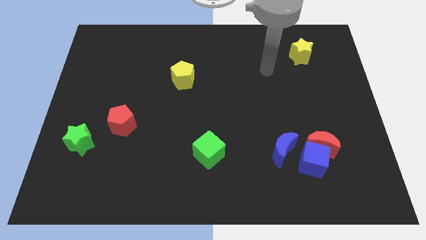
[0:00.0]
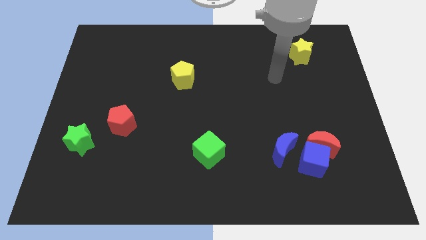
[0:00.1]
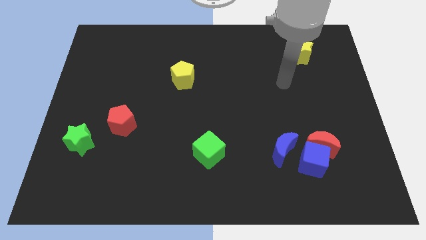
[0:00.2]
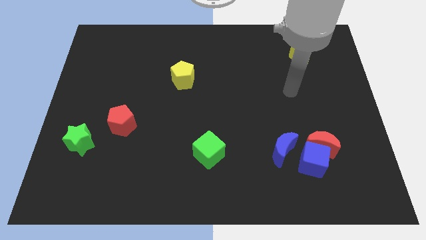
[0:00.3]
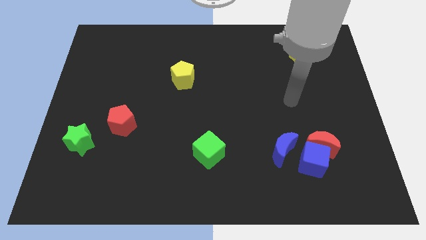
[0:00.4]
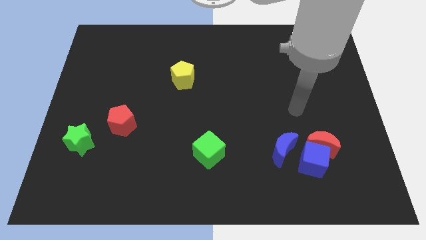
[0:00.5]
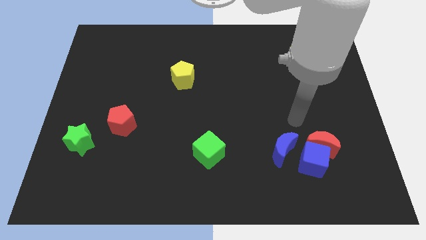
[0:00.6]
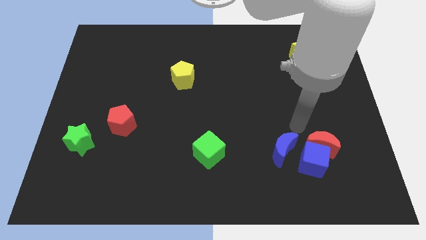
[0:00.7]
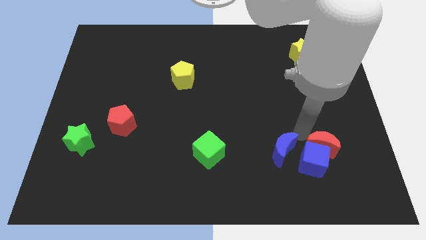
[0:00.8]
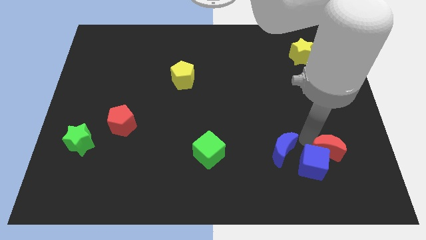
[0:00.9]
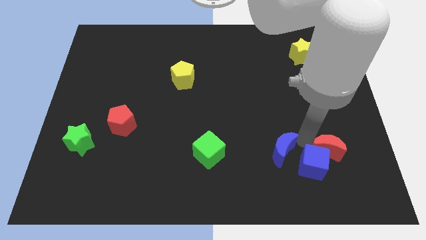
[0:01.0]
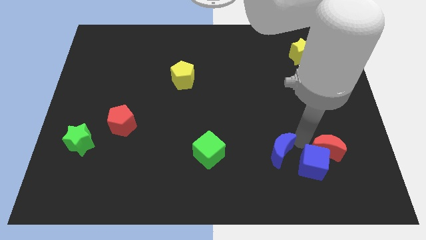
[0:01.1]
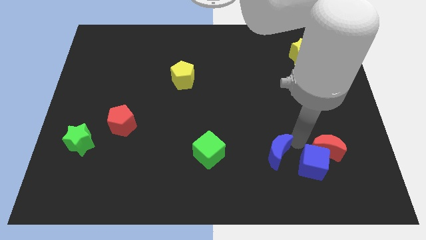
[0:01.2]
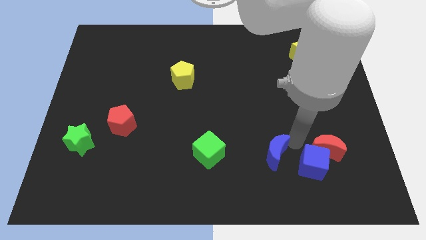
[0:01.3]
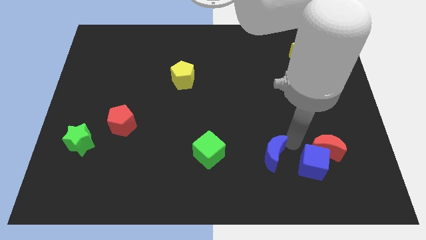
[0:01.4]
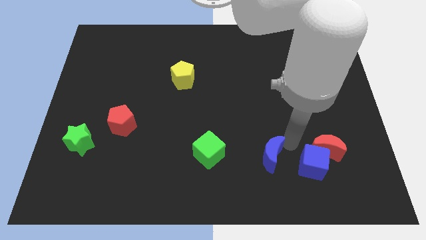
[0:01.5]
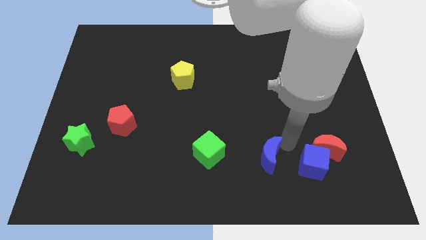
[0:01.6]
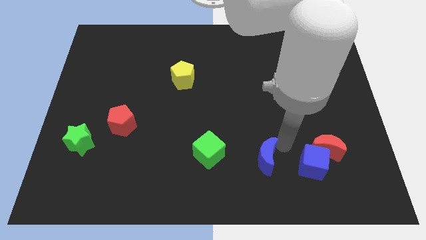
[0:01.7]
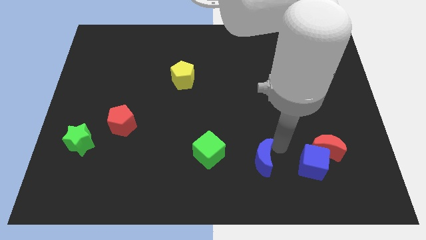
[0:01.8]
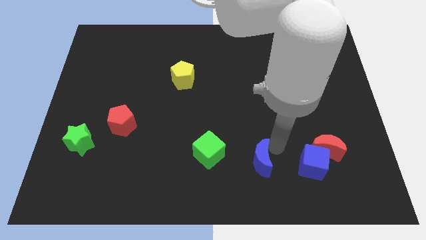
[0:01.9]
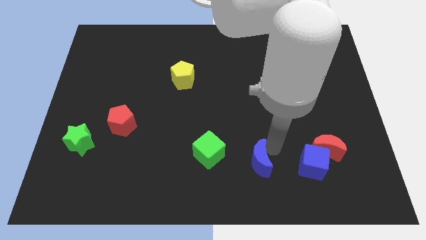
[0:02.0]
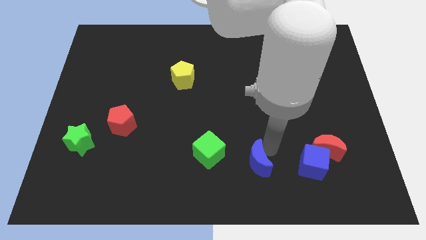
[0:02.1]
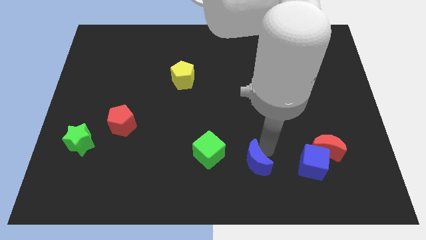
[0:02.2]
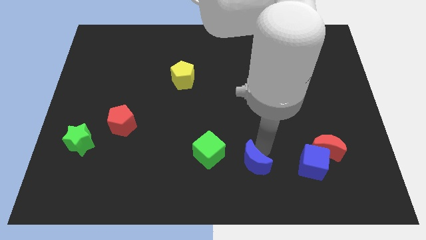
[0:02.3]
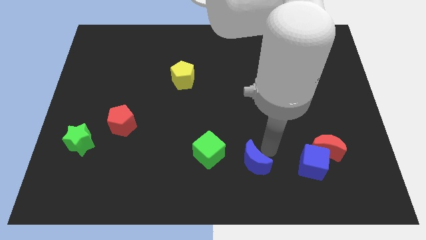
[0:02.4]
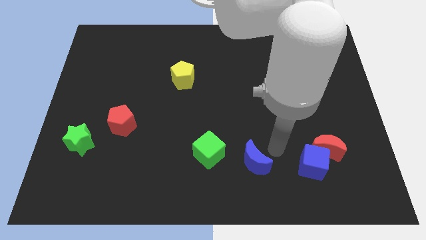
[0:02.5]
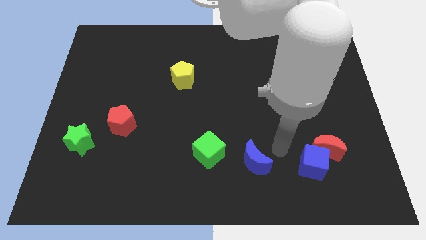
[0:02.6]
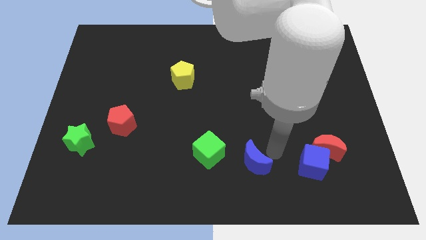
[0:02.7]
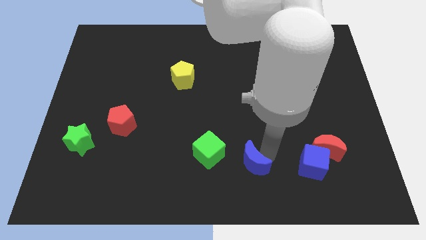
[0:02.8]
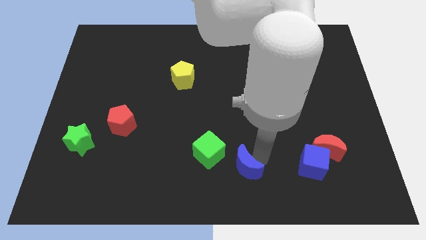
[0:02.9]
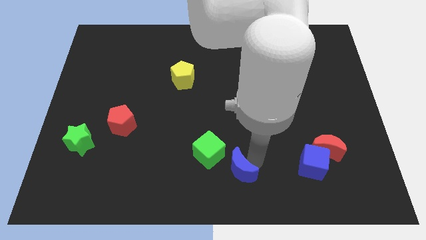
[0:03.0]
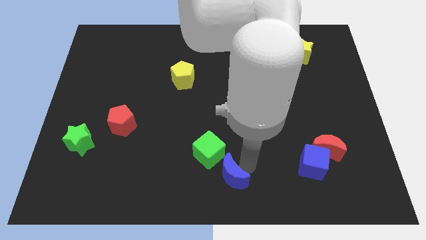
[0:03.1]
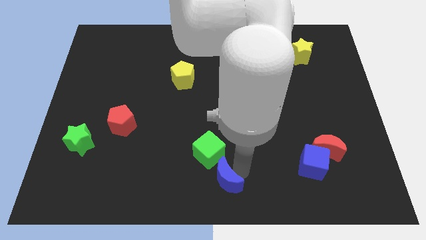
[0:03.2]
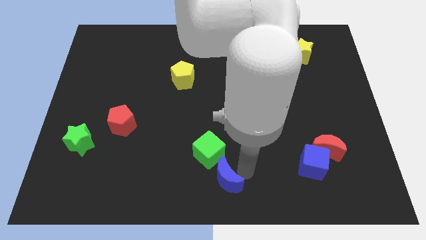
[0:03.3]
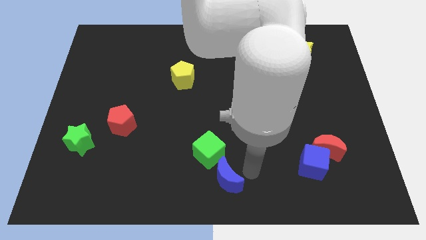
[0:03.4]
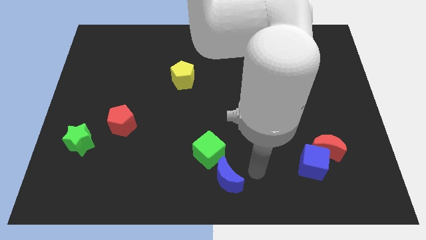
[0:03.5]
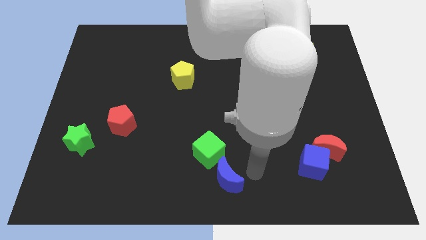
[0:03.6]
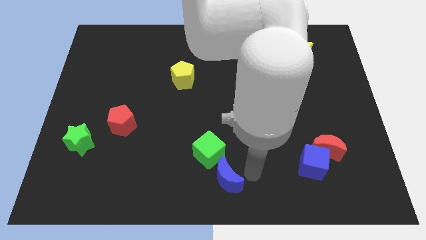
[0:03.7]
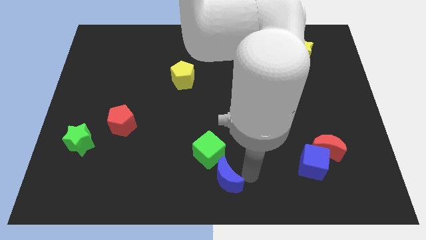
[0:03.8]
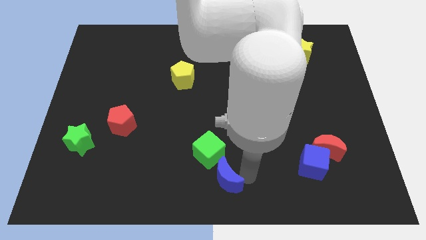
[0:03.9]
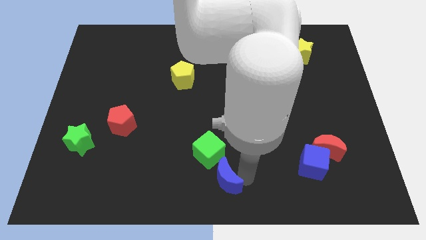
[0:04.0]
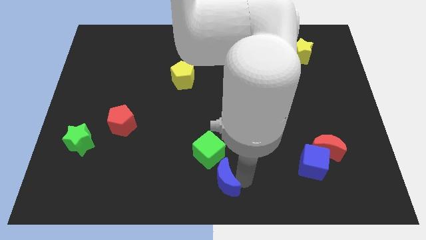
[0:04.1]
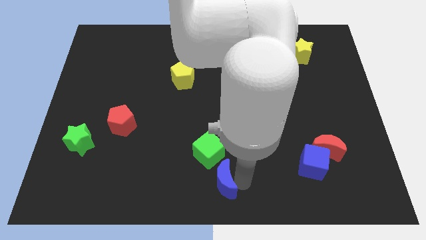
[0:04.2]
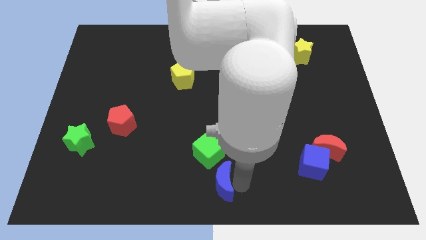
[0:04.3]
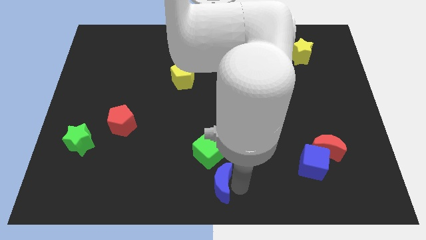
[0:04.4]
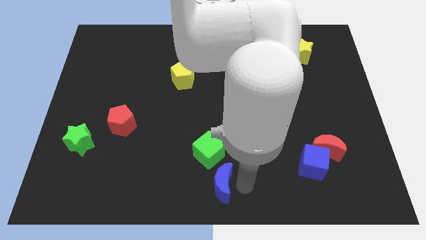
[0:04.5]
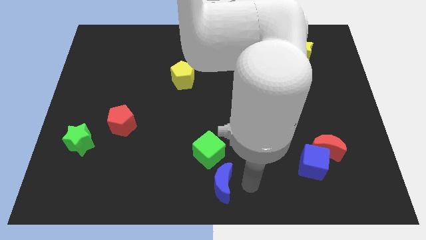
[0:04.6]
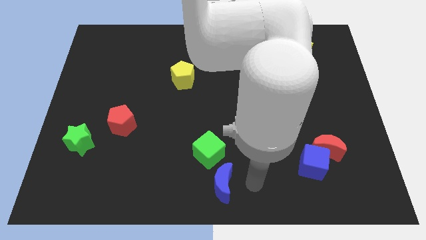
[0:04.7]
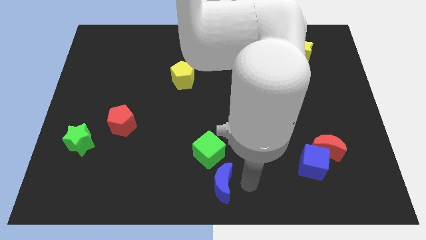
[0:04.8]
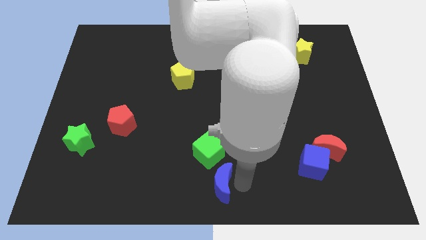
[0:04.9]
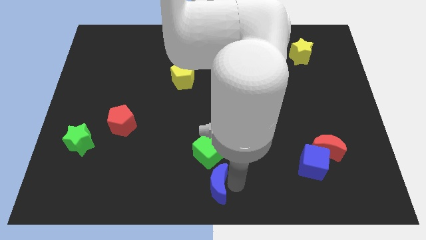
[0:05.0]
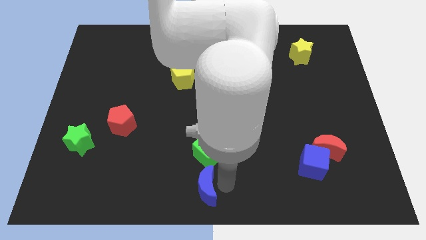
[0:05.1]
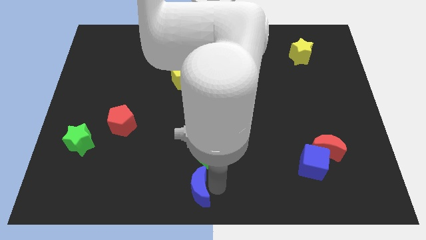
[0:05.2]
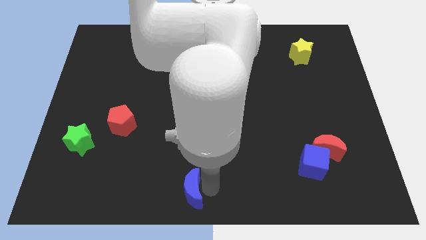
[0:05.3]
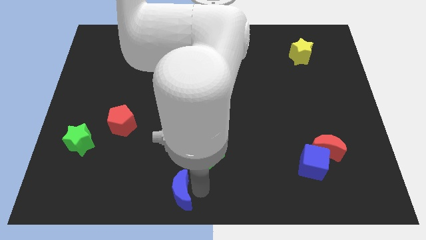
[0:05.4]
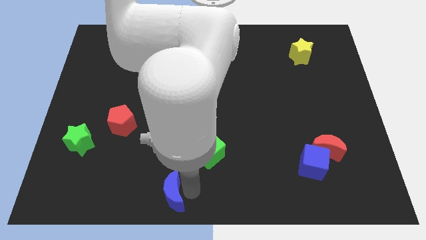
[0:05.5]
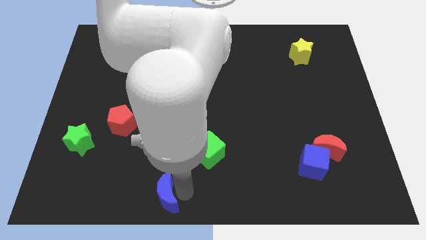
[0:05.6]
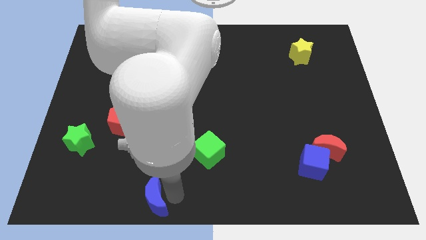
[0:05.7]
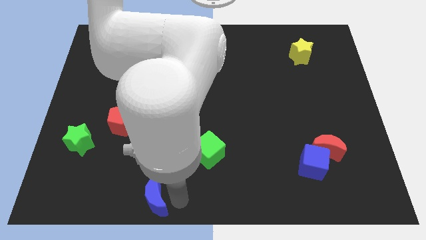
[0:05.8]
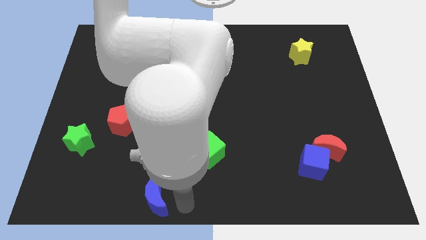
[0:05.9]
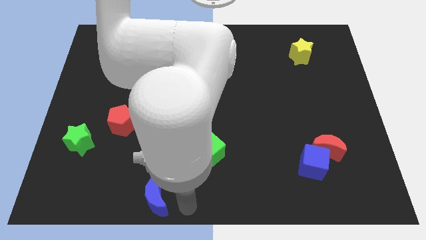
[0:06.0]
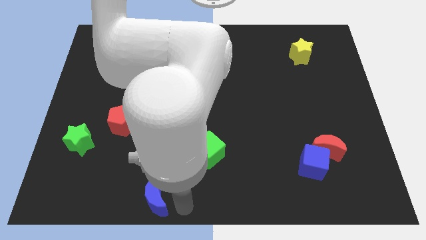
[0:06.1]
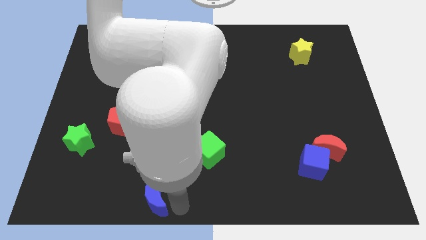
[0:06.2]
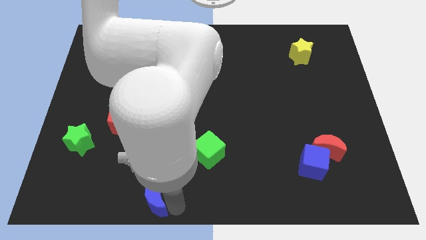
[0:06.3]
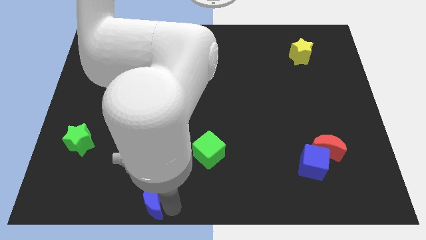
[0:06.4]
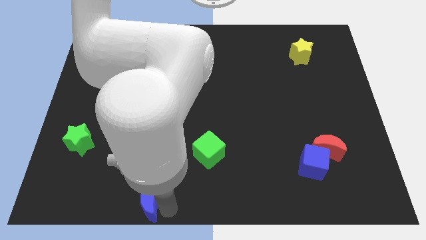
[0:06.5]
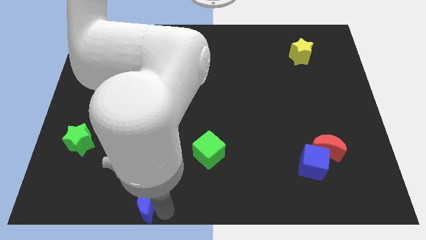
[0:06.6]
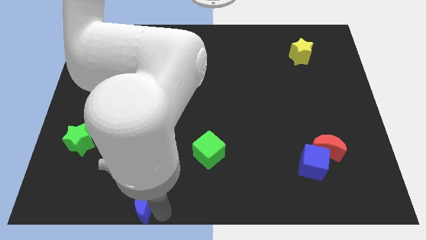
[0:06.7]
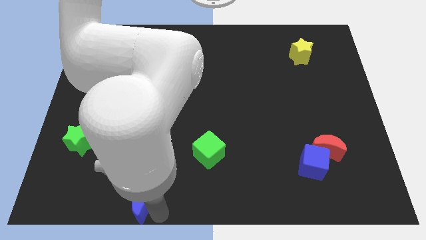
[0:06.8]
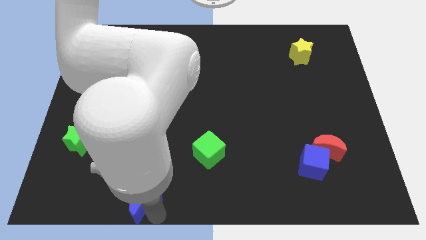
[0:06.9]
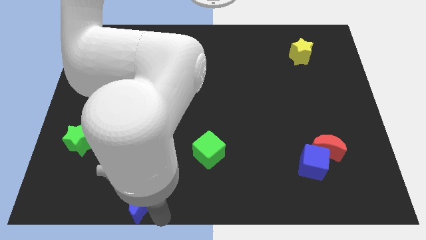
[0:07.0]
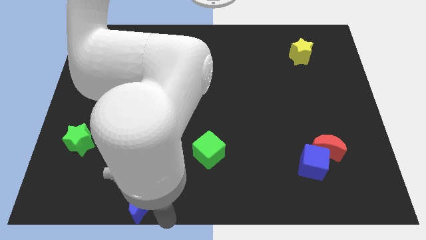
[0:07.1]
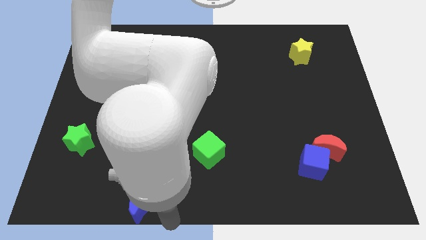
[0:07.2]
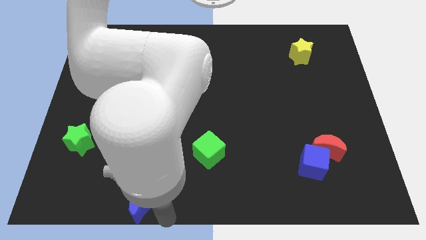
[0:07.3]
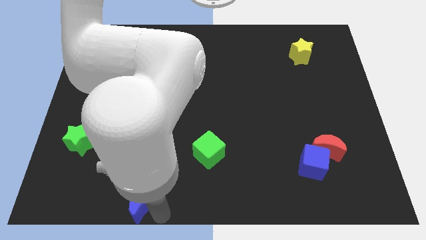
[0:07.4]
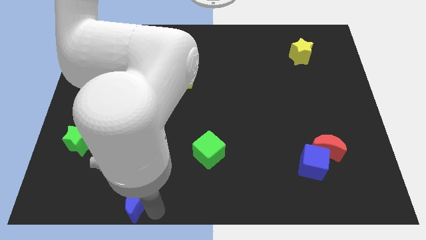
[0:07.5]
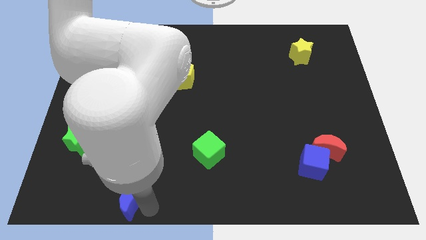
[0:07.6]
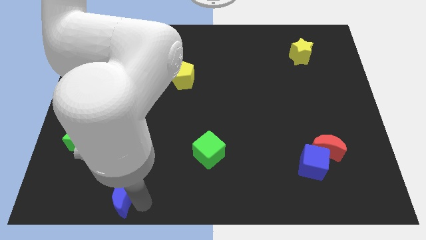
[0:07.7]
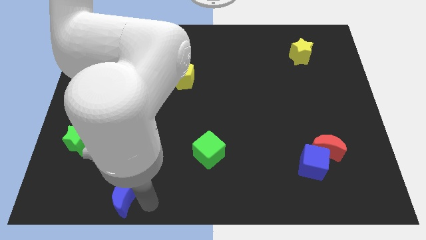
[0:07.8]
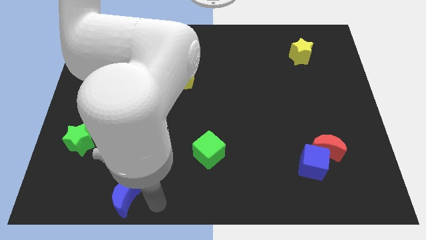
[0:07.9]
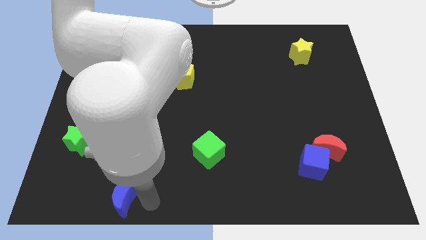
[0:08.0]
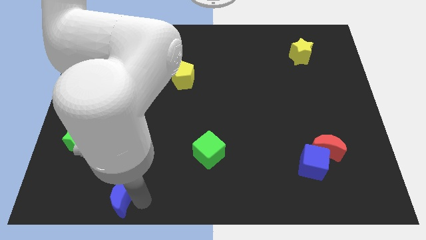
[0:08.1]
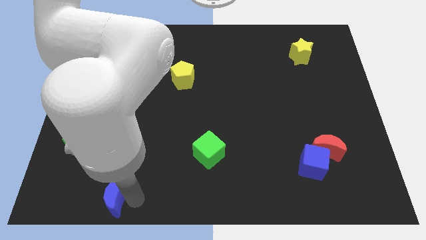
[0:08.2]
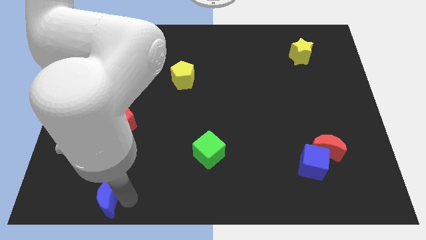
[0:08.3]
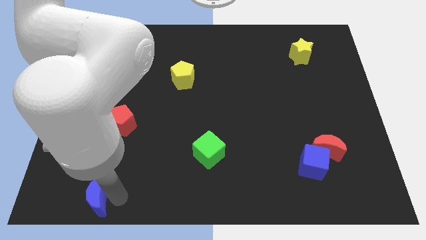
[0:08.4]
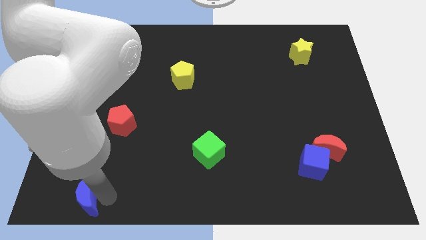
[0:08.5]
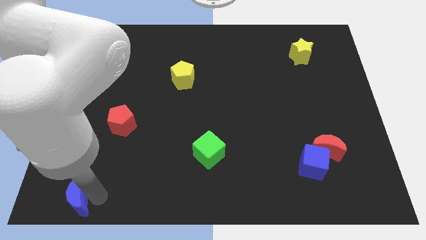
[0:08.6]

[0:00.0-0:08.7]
slide the blue moon to the bottom left of the board
